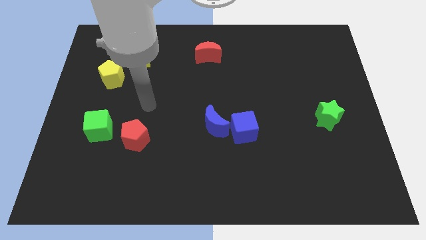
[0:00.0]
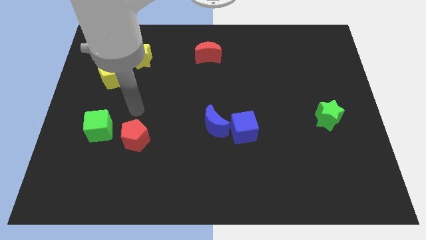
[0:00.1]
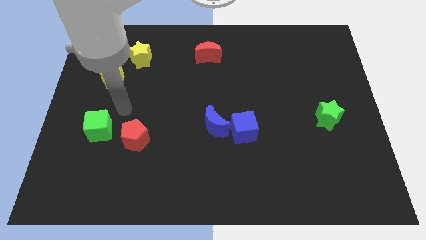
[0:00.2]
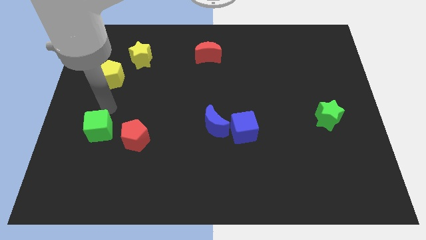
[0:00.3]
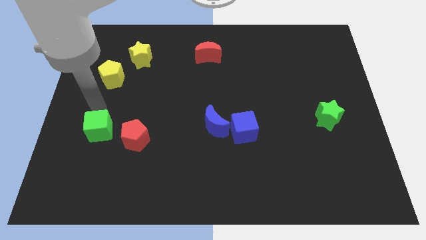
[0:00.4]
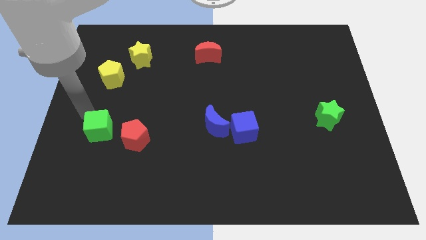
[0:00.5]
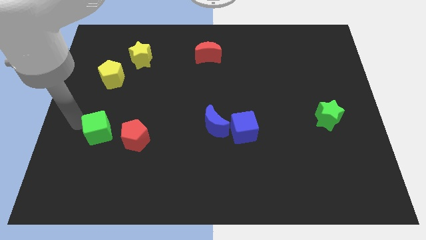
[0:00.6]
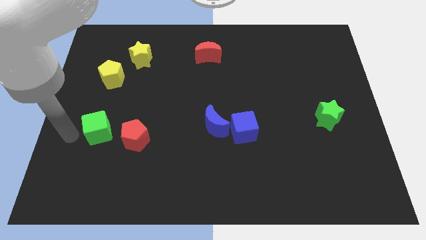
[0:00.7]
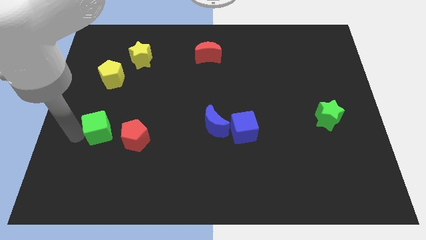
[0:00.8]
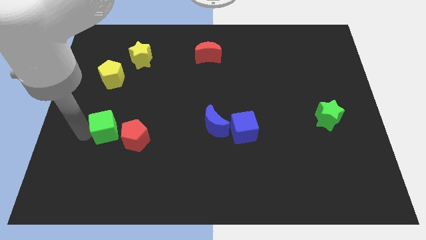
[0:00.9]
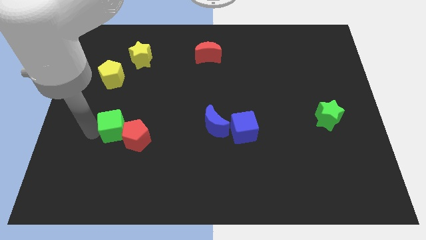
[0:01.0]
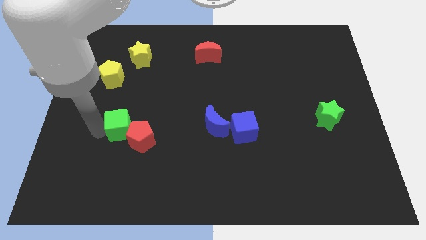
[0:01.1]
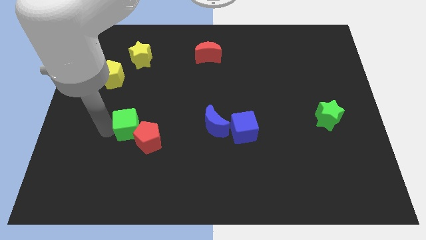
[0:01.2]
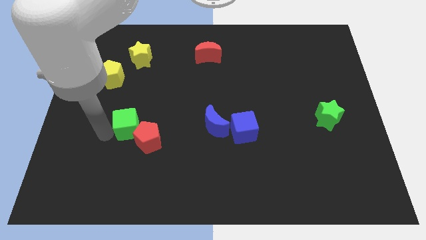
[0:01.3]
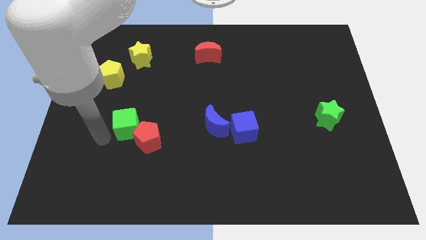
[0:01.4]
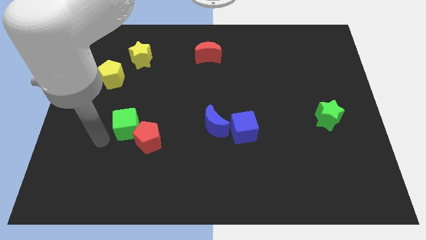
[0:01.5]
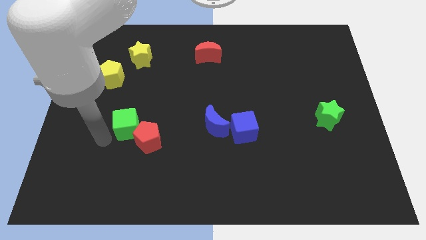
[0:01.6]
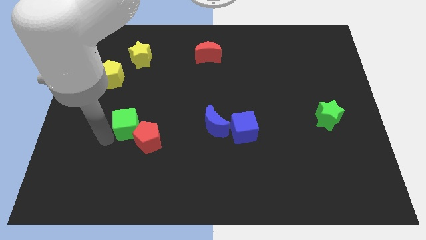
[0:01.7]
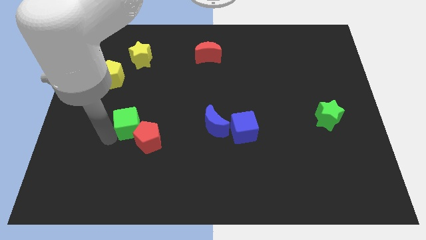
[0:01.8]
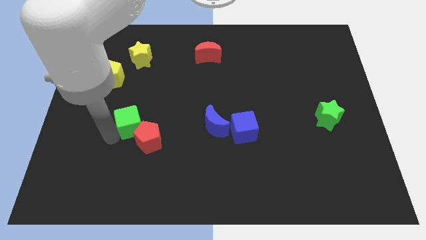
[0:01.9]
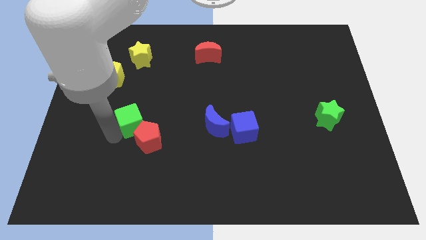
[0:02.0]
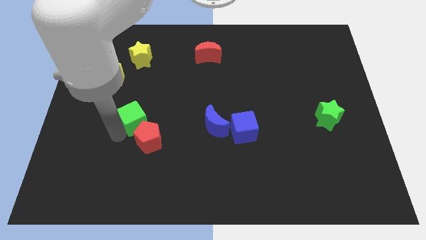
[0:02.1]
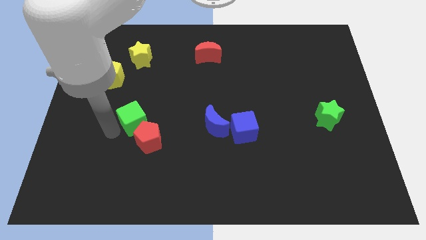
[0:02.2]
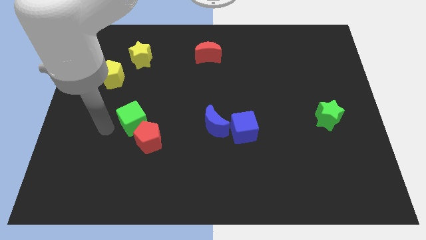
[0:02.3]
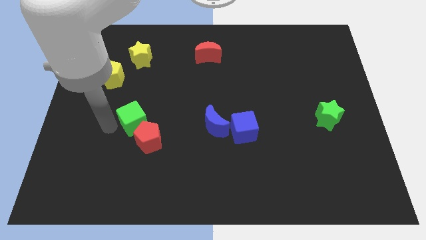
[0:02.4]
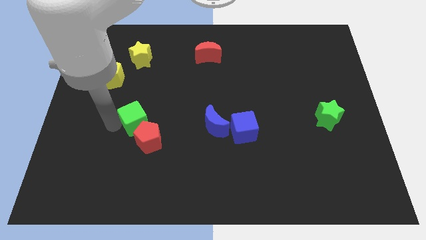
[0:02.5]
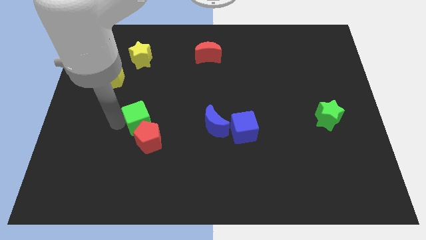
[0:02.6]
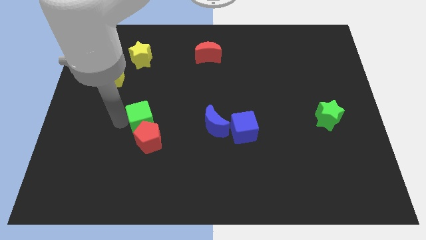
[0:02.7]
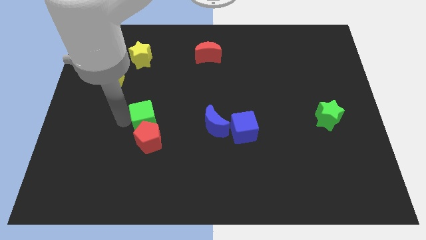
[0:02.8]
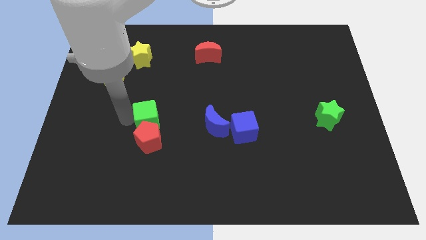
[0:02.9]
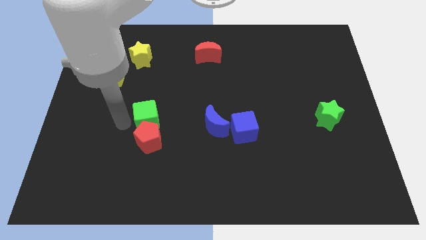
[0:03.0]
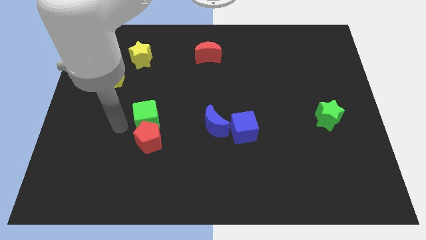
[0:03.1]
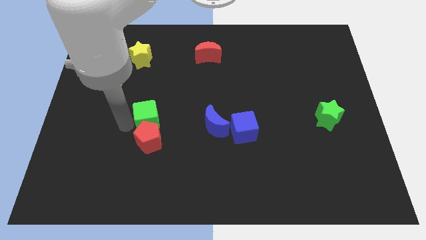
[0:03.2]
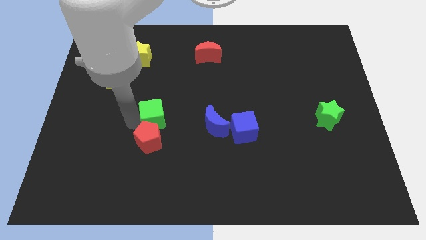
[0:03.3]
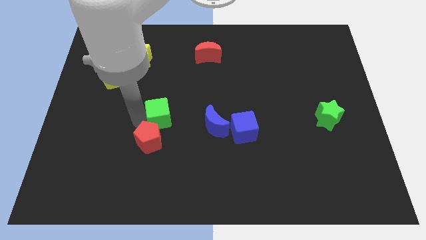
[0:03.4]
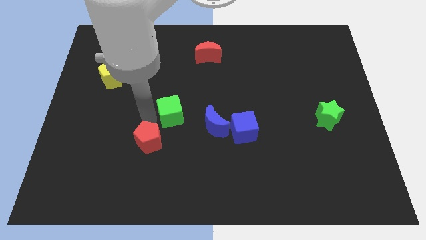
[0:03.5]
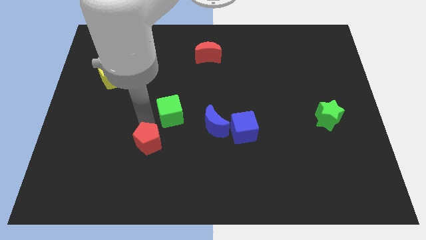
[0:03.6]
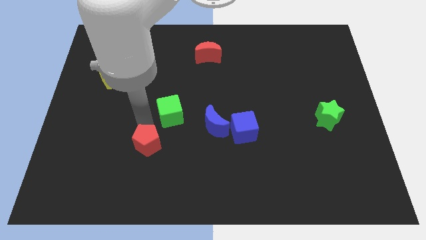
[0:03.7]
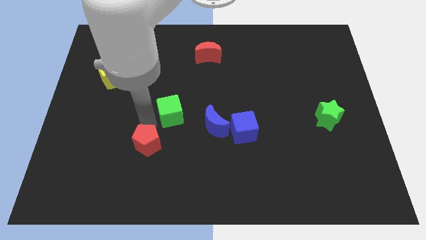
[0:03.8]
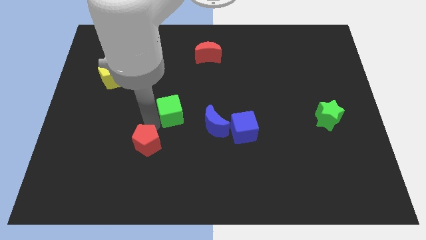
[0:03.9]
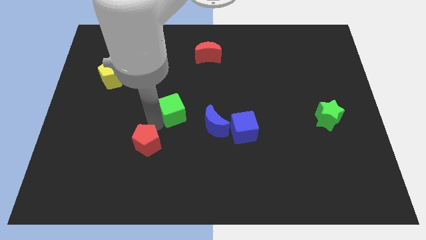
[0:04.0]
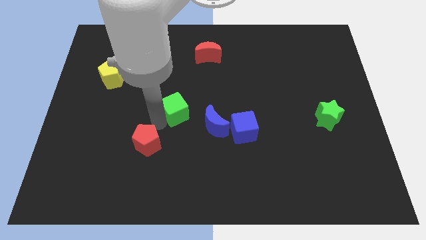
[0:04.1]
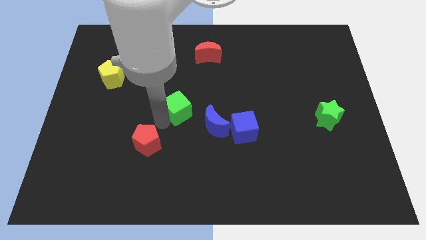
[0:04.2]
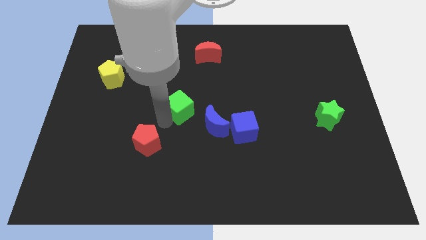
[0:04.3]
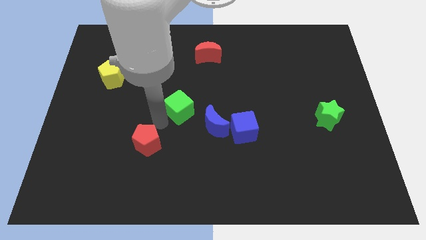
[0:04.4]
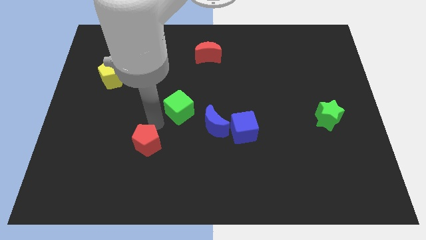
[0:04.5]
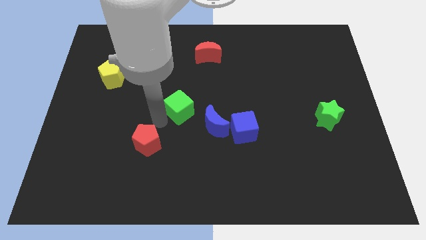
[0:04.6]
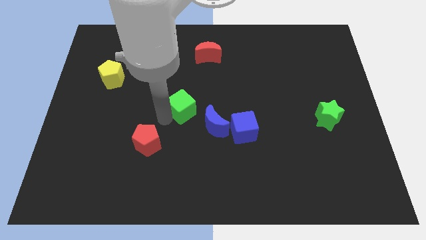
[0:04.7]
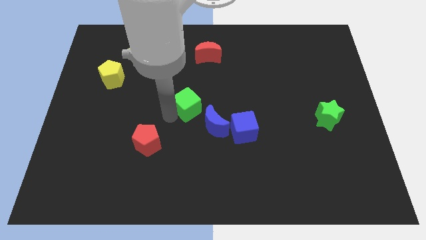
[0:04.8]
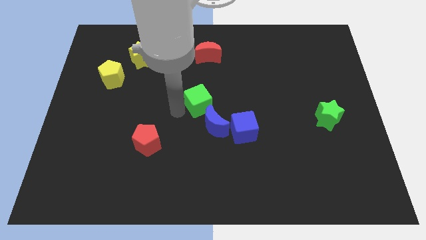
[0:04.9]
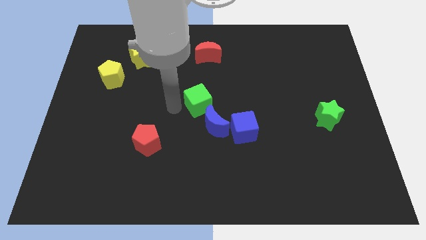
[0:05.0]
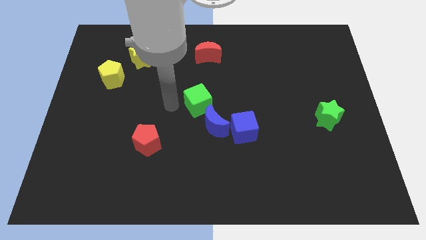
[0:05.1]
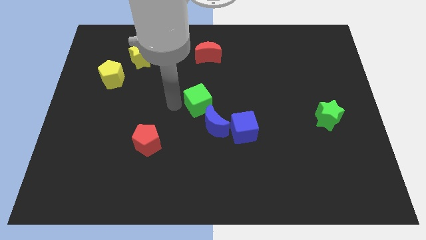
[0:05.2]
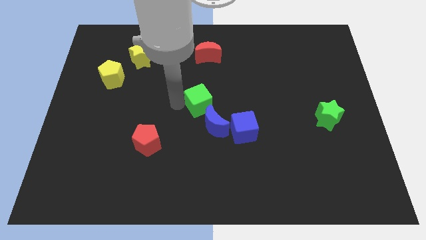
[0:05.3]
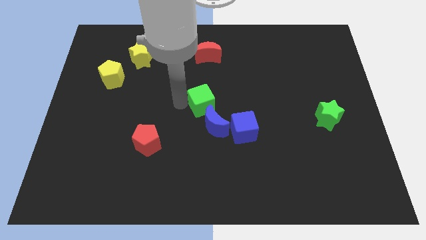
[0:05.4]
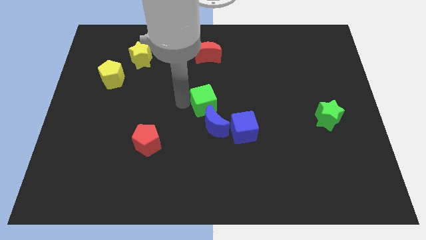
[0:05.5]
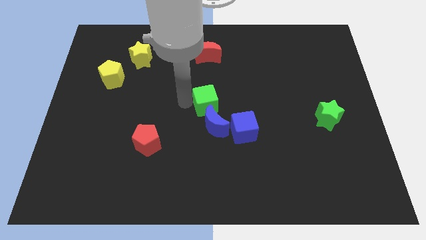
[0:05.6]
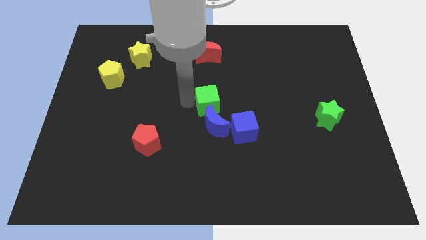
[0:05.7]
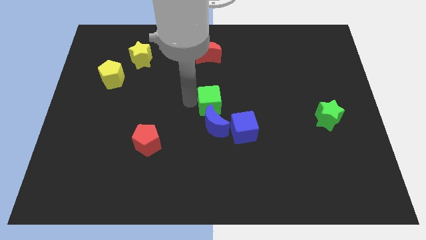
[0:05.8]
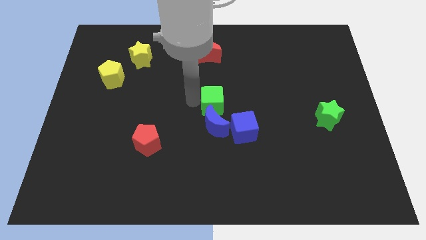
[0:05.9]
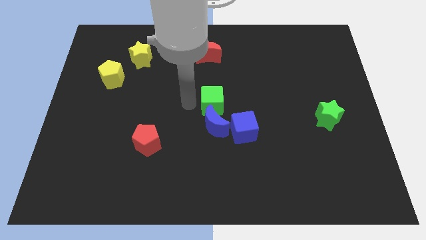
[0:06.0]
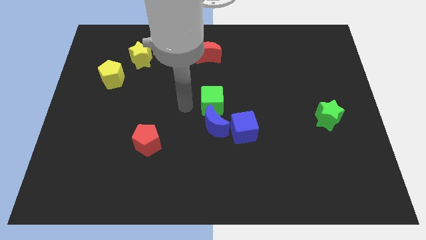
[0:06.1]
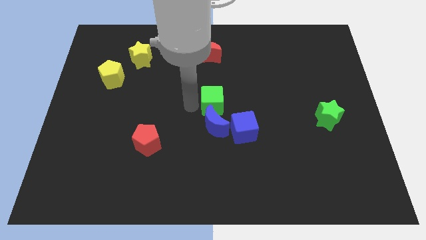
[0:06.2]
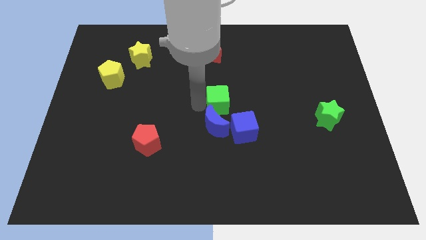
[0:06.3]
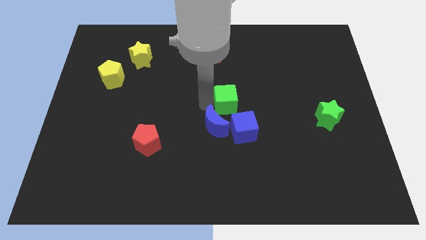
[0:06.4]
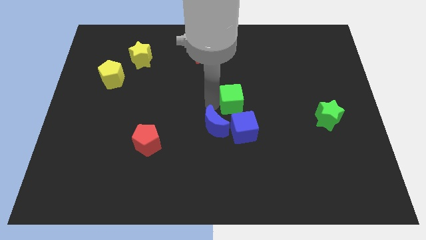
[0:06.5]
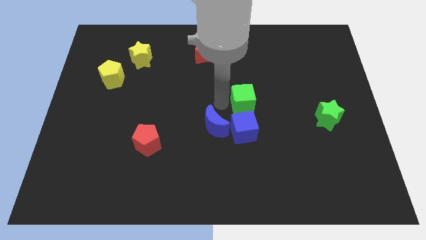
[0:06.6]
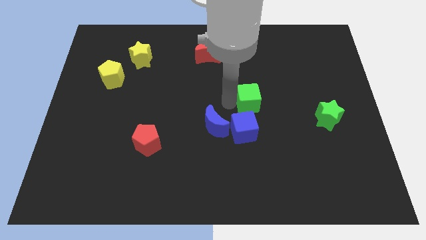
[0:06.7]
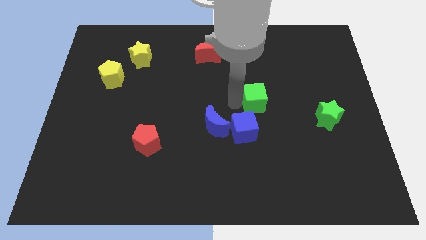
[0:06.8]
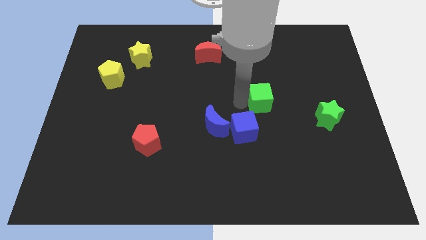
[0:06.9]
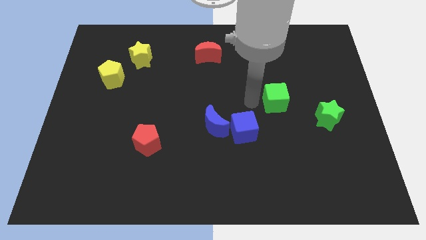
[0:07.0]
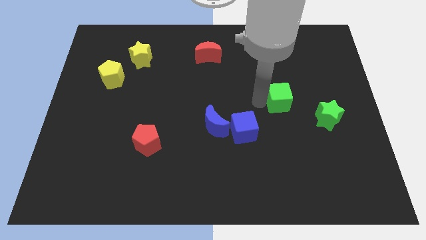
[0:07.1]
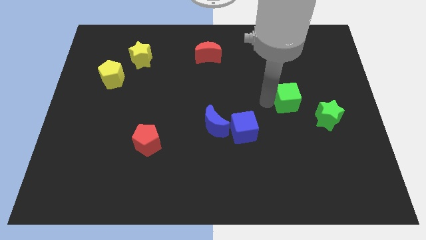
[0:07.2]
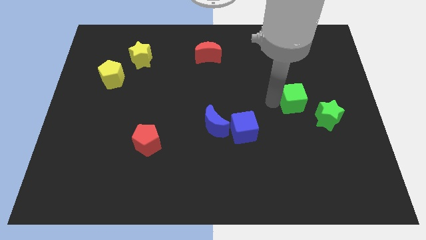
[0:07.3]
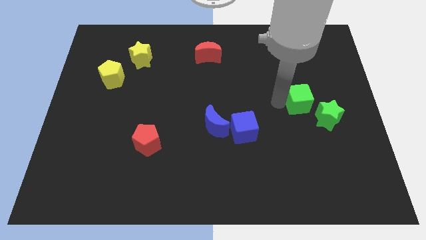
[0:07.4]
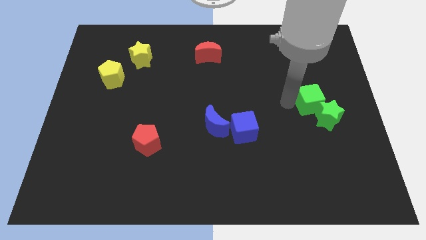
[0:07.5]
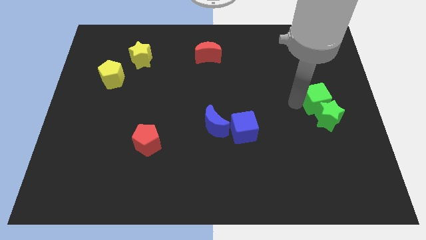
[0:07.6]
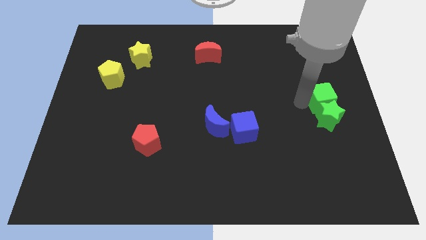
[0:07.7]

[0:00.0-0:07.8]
slide the green cube to the right side of the board
